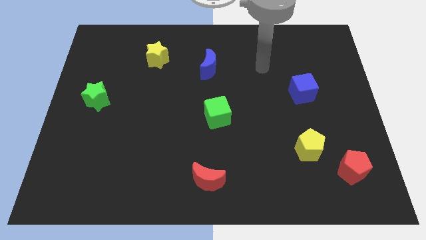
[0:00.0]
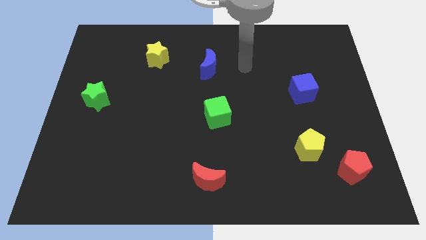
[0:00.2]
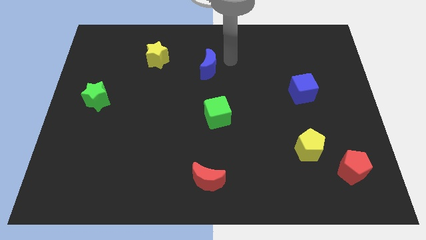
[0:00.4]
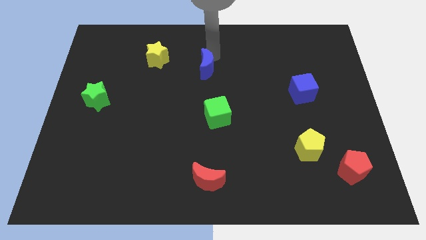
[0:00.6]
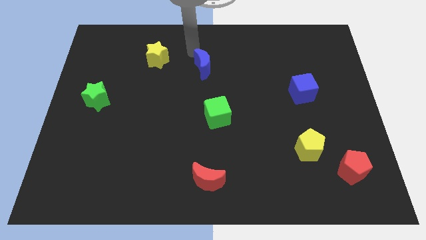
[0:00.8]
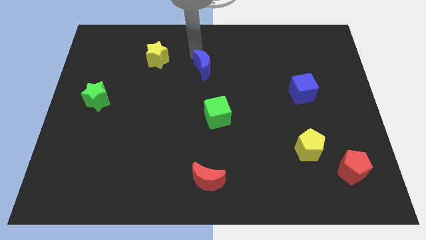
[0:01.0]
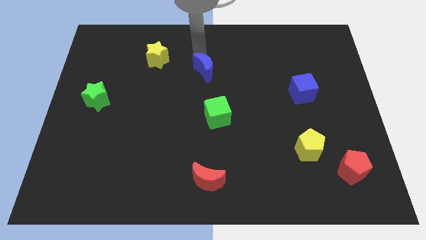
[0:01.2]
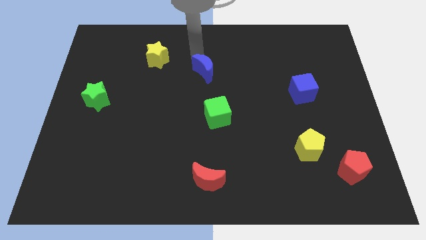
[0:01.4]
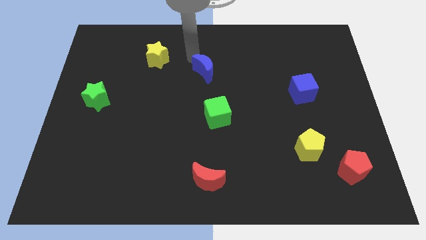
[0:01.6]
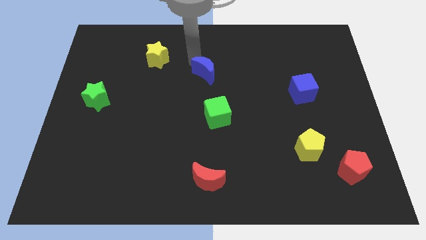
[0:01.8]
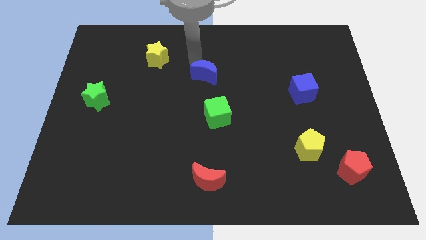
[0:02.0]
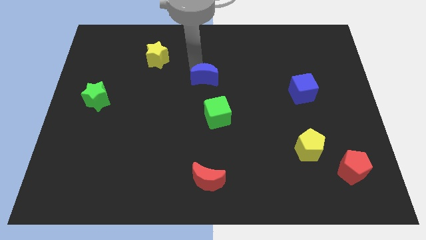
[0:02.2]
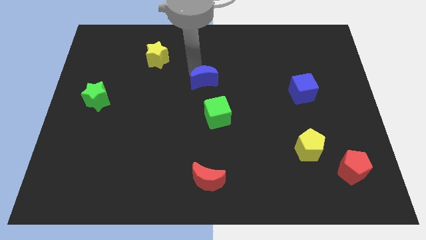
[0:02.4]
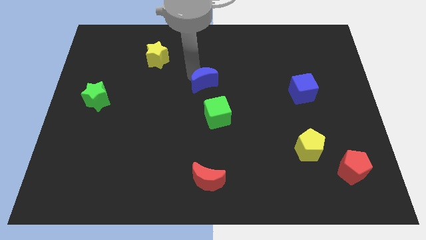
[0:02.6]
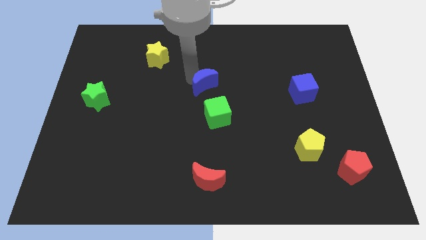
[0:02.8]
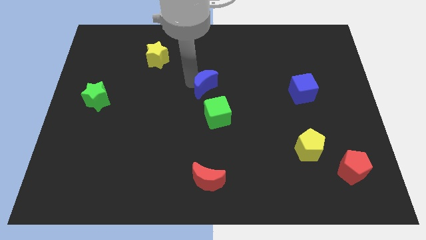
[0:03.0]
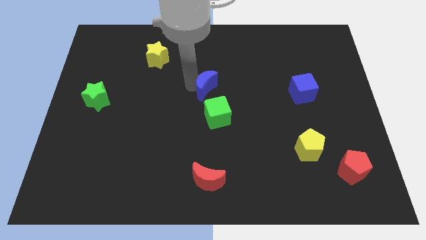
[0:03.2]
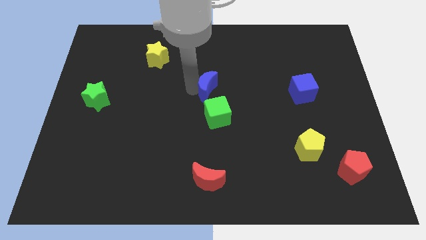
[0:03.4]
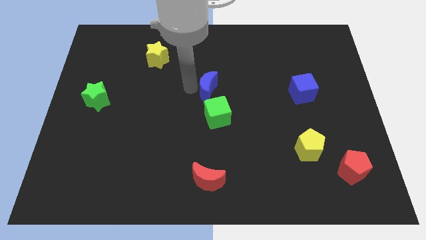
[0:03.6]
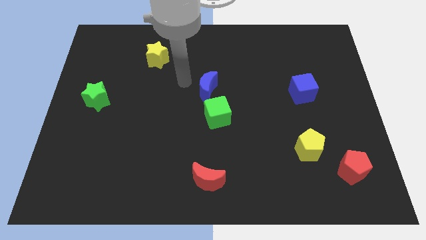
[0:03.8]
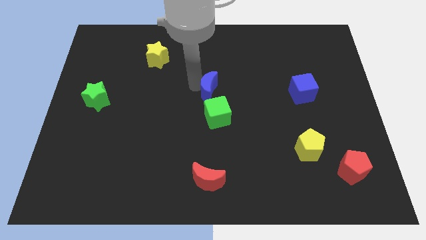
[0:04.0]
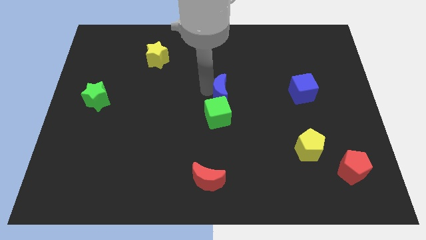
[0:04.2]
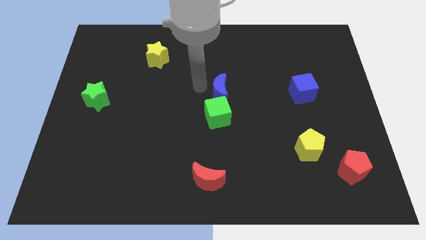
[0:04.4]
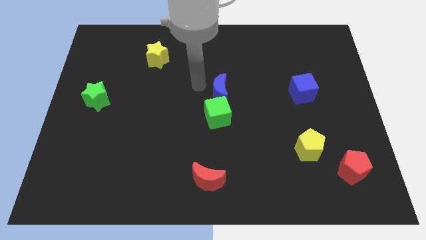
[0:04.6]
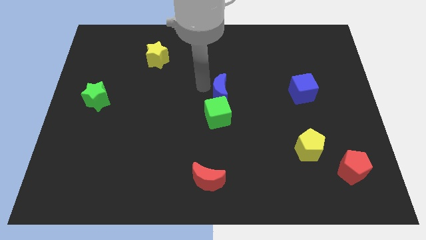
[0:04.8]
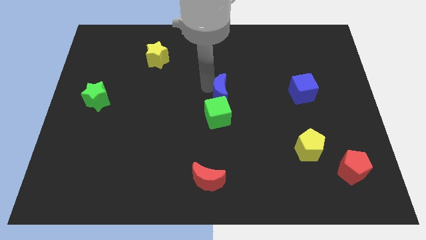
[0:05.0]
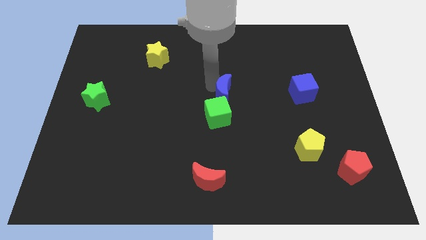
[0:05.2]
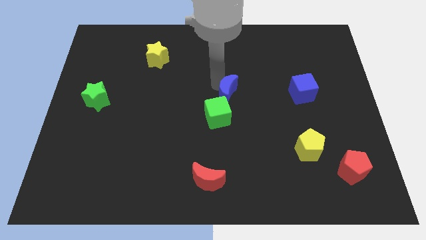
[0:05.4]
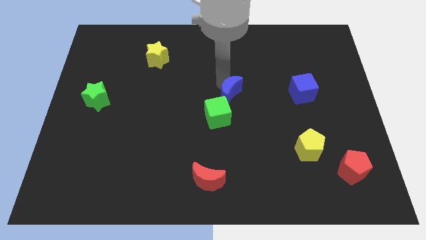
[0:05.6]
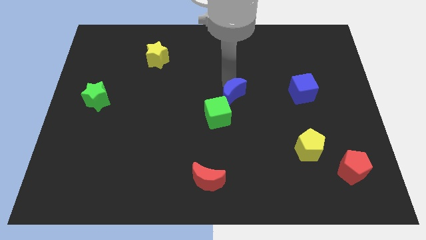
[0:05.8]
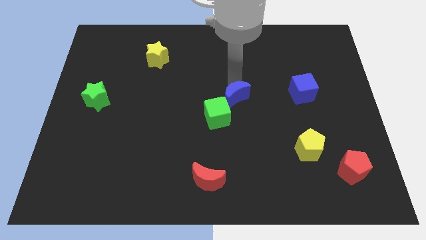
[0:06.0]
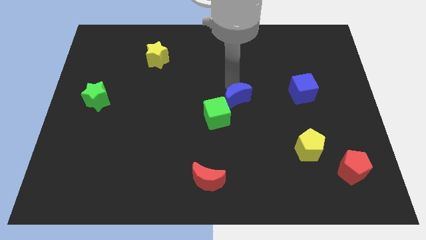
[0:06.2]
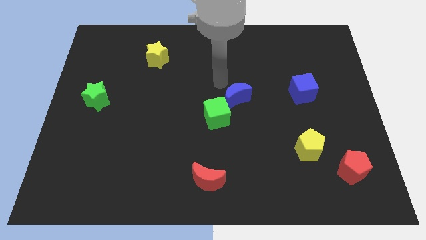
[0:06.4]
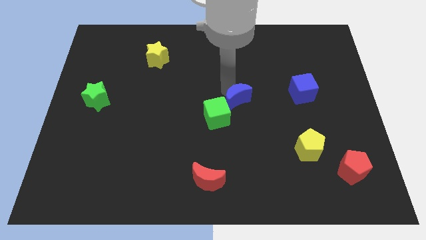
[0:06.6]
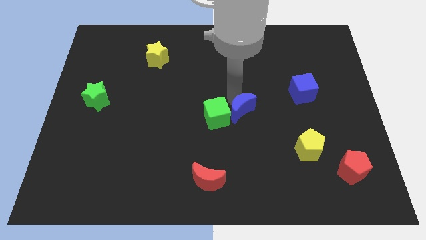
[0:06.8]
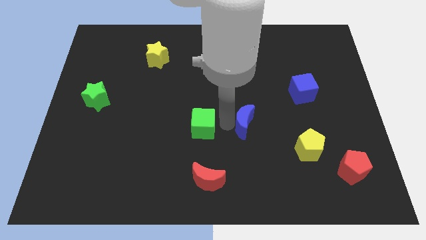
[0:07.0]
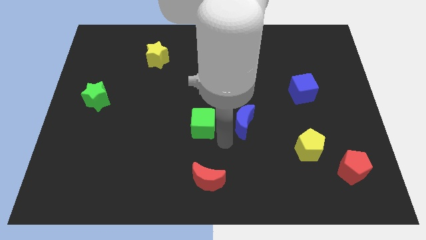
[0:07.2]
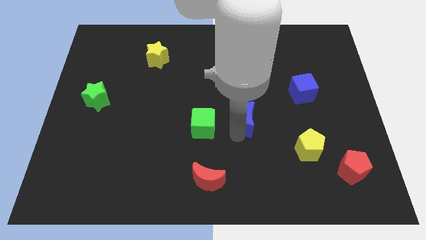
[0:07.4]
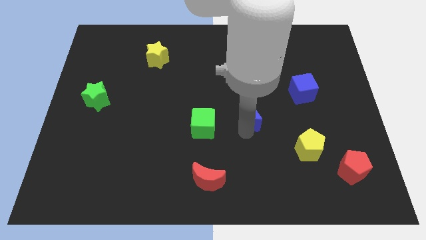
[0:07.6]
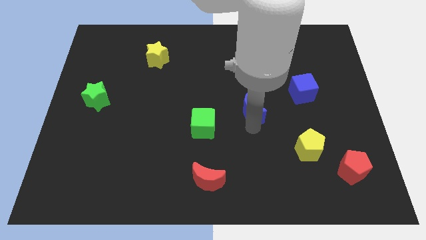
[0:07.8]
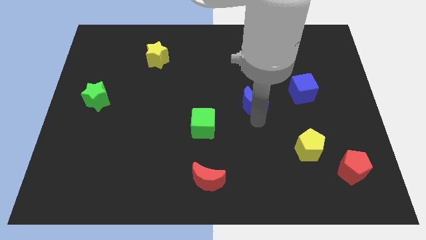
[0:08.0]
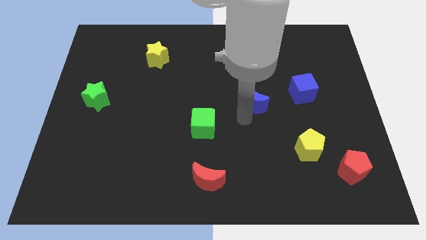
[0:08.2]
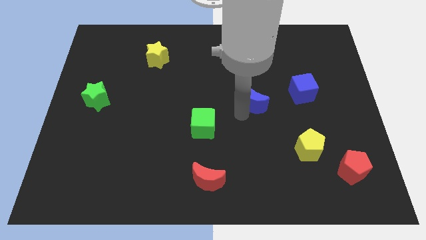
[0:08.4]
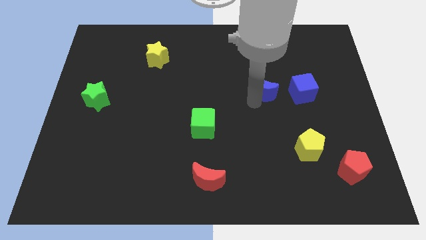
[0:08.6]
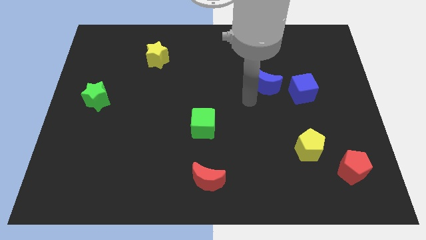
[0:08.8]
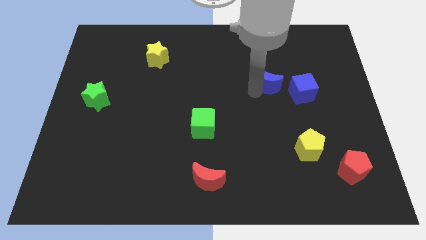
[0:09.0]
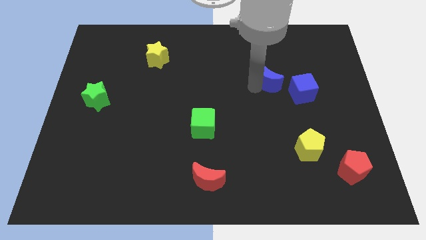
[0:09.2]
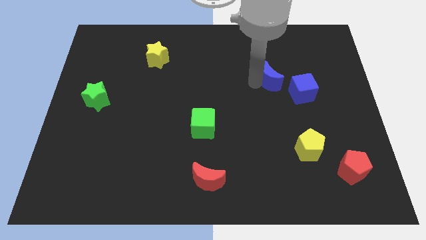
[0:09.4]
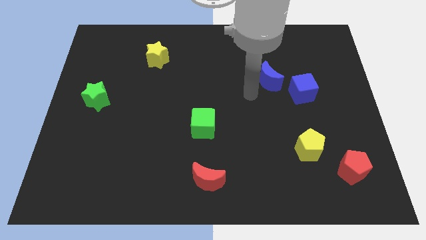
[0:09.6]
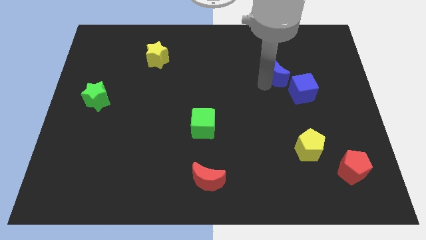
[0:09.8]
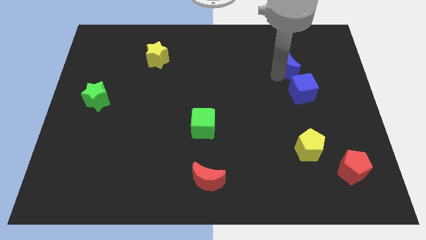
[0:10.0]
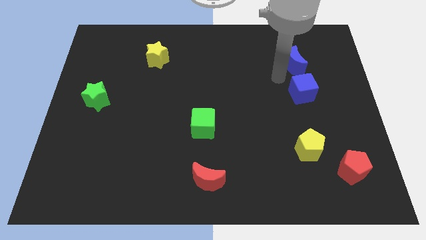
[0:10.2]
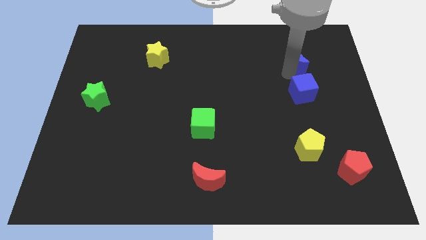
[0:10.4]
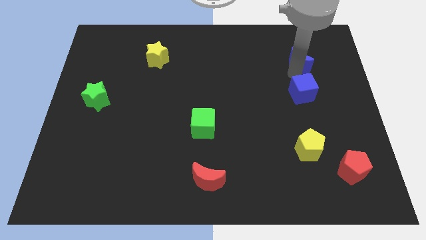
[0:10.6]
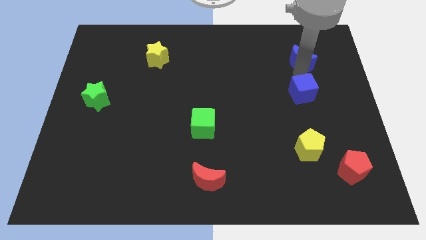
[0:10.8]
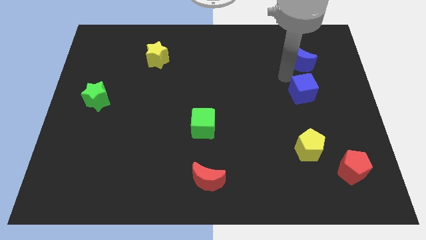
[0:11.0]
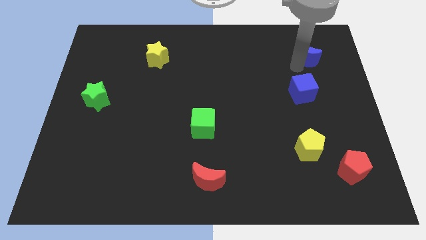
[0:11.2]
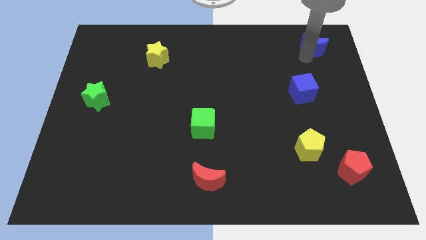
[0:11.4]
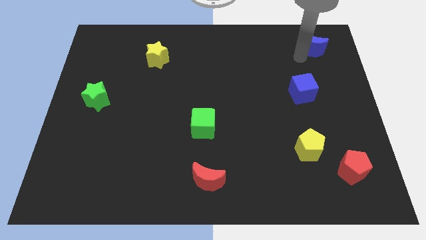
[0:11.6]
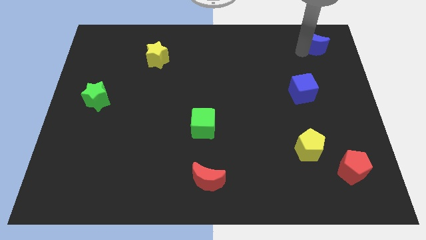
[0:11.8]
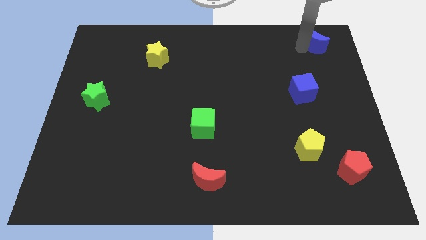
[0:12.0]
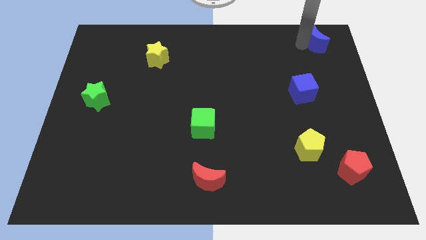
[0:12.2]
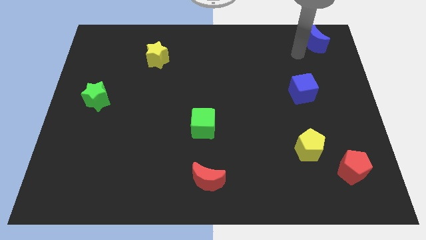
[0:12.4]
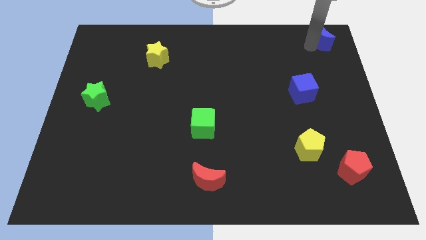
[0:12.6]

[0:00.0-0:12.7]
push the blue moon to the top right
